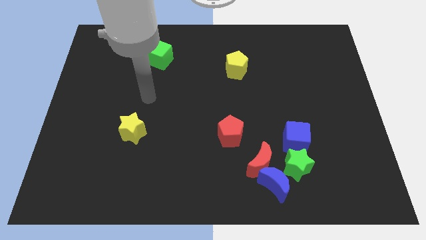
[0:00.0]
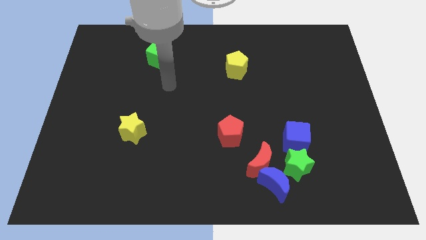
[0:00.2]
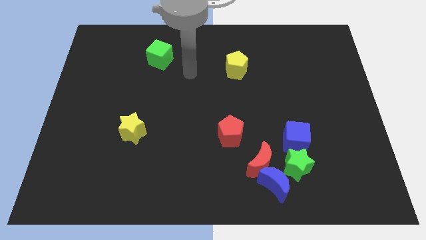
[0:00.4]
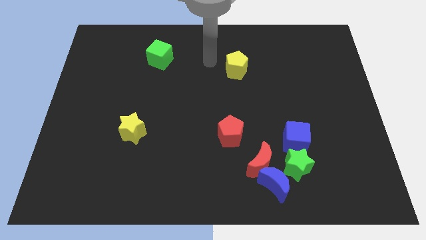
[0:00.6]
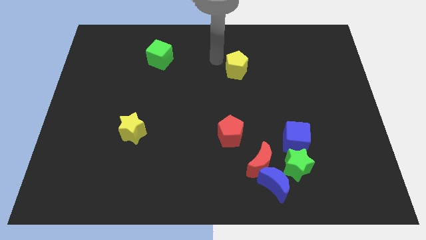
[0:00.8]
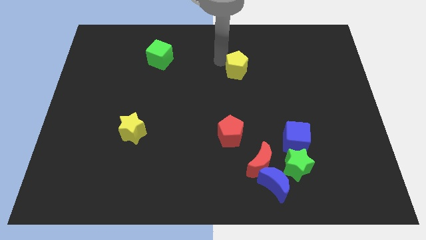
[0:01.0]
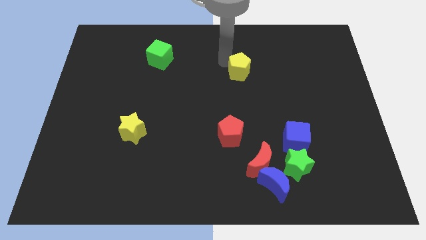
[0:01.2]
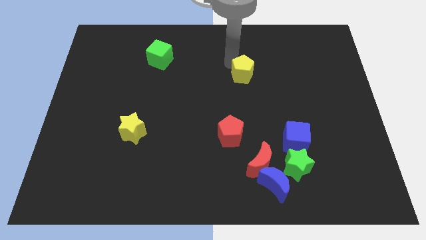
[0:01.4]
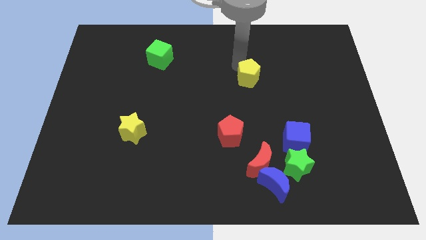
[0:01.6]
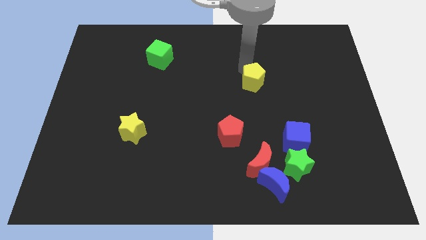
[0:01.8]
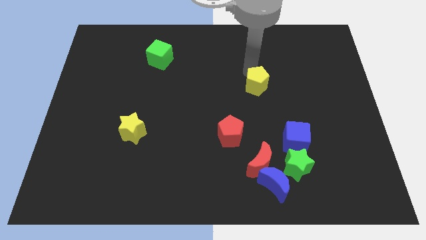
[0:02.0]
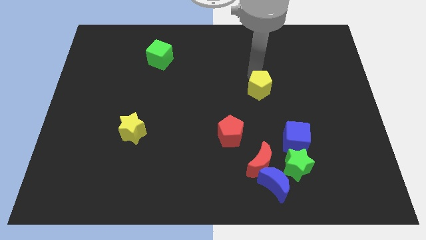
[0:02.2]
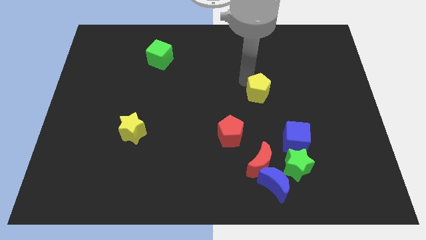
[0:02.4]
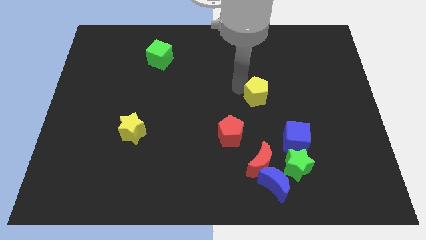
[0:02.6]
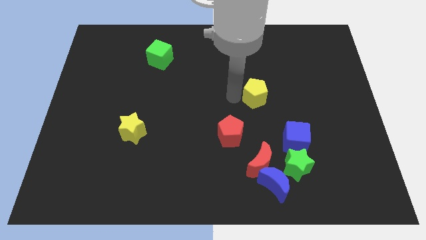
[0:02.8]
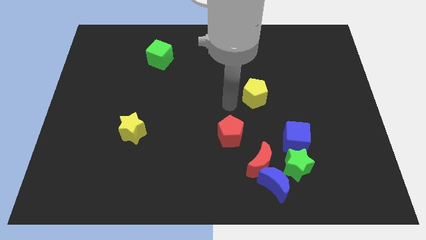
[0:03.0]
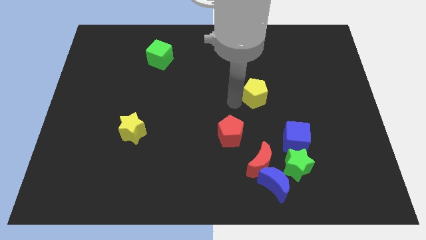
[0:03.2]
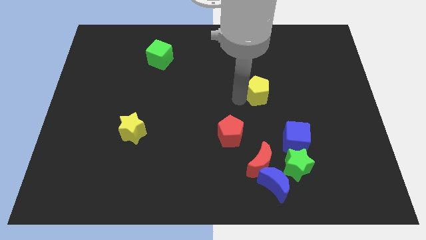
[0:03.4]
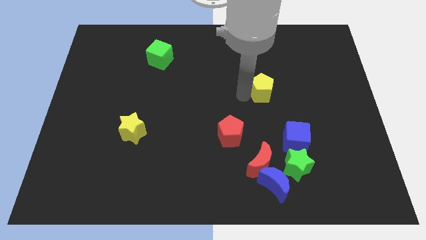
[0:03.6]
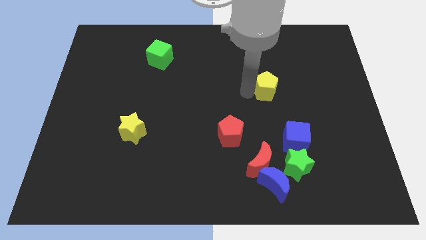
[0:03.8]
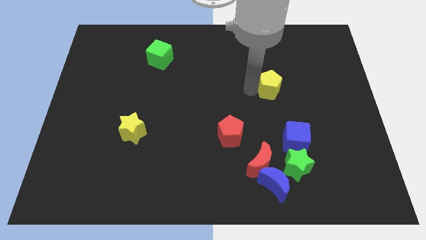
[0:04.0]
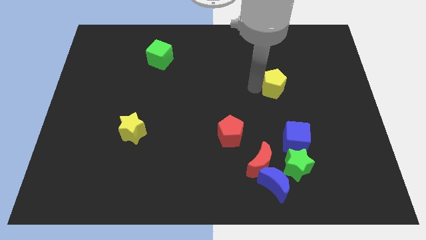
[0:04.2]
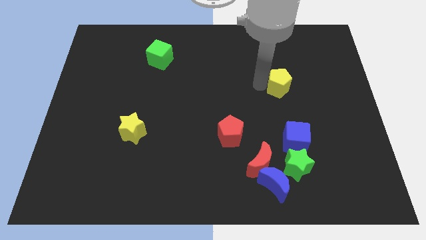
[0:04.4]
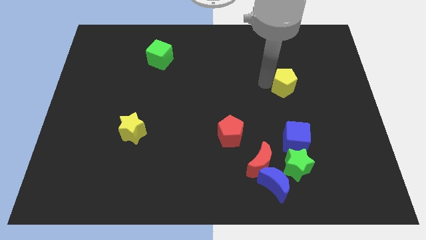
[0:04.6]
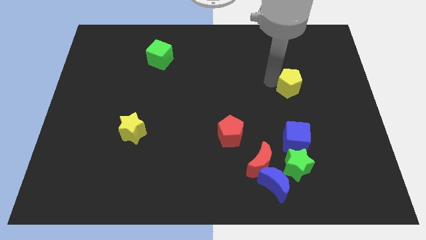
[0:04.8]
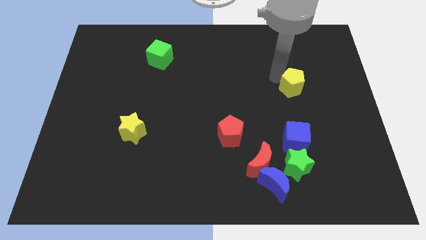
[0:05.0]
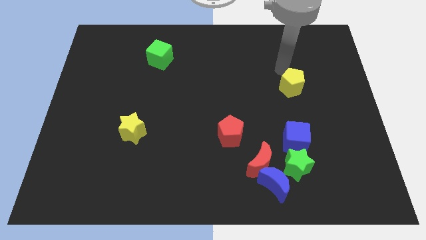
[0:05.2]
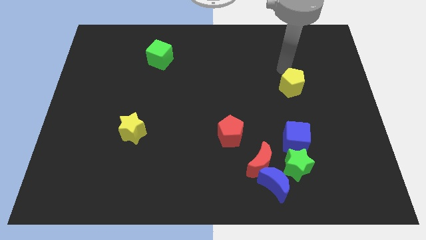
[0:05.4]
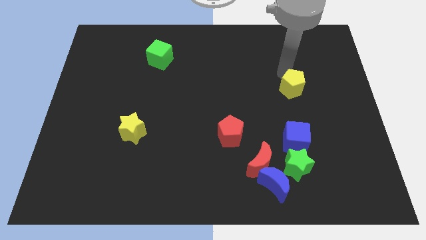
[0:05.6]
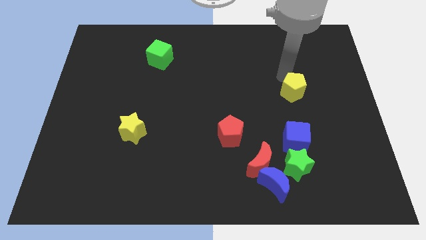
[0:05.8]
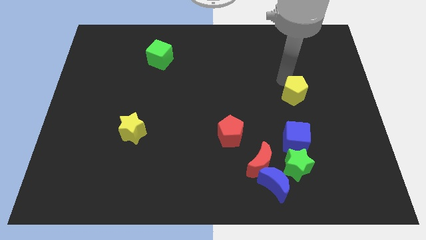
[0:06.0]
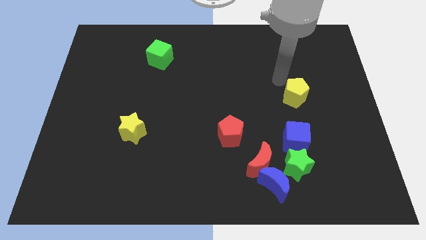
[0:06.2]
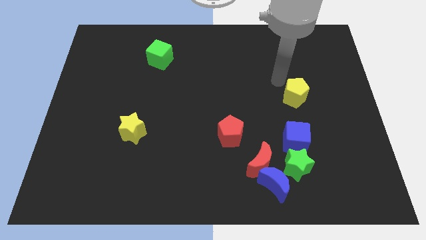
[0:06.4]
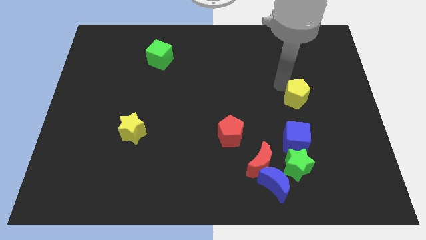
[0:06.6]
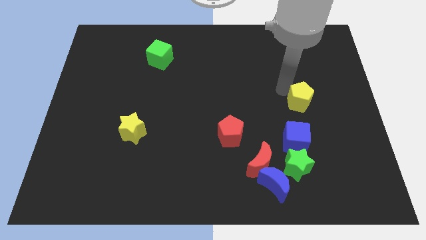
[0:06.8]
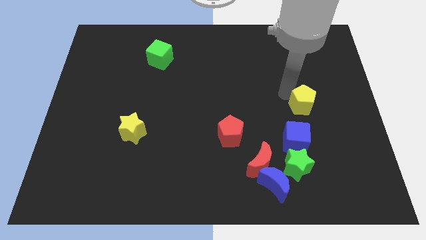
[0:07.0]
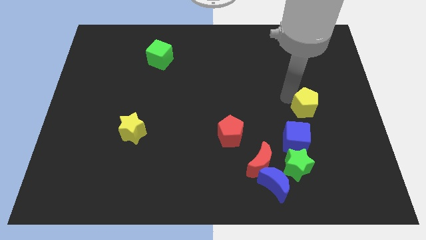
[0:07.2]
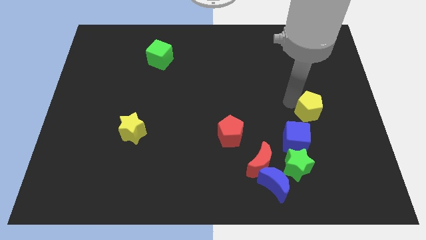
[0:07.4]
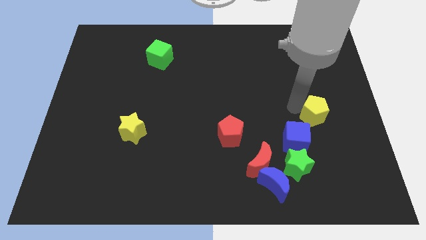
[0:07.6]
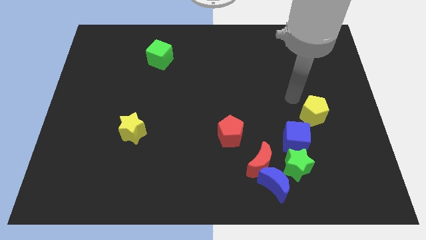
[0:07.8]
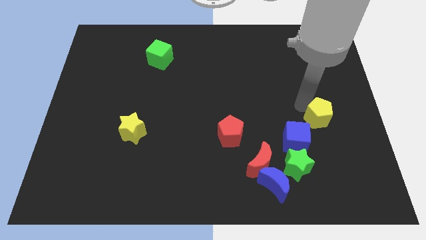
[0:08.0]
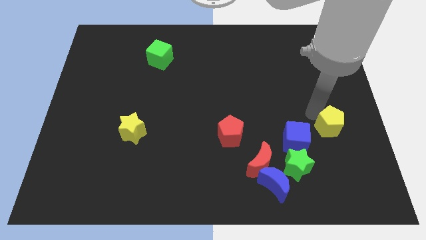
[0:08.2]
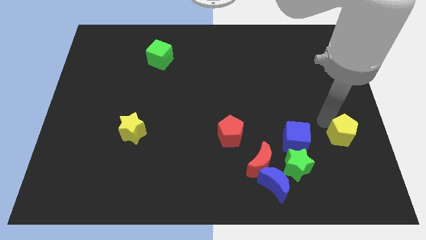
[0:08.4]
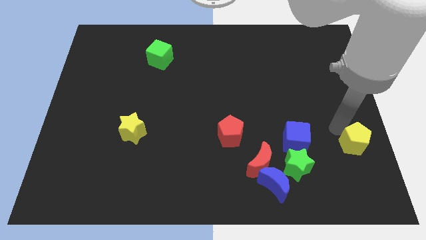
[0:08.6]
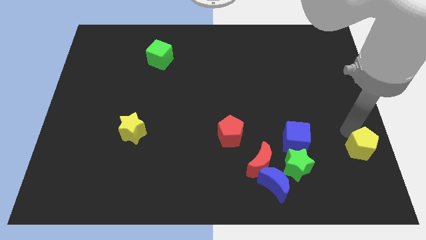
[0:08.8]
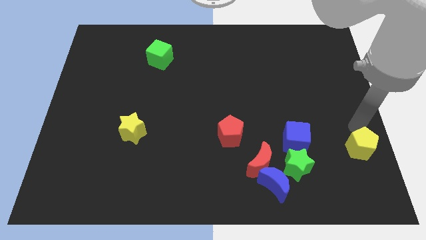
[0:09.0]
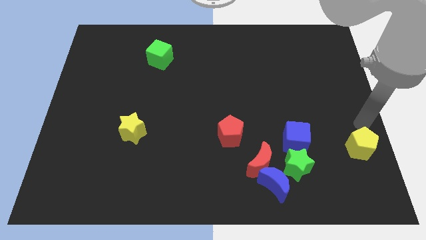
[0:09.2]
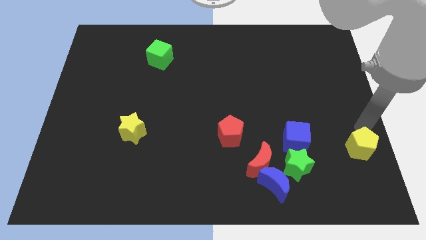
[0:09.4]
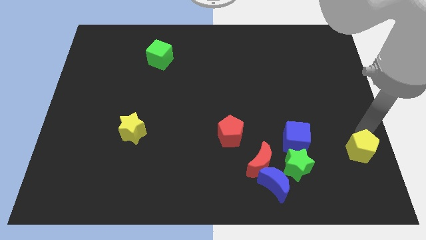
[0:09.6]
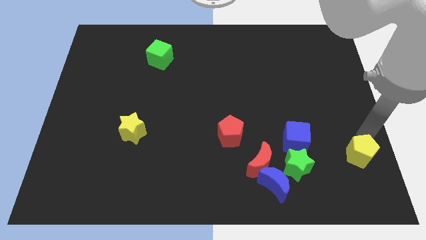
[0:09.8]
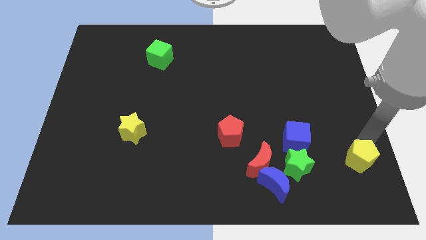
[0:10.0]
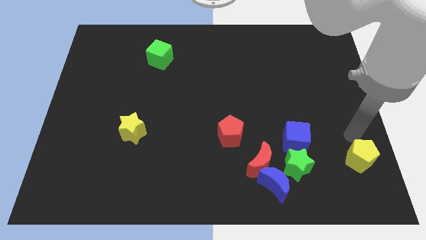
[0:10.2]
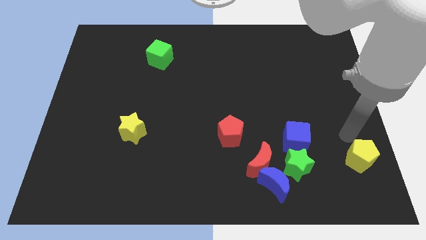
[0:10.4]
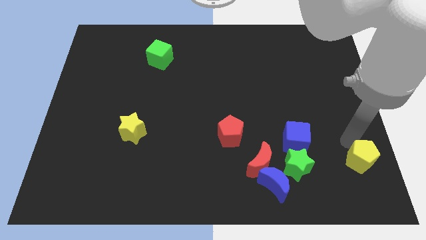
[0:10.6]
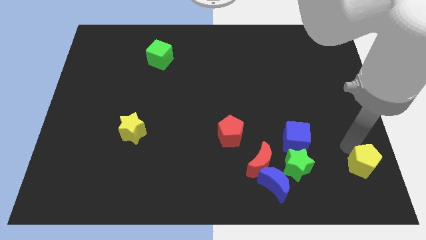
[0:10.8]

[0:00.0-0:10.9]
slide the yellow pentagon to the lower right corner
